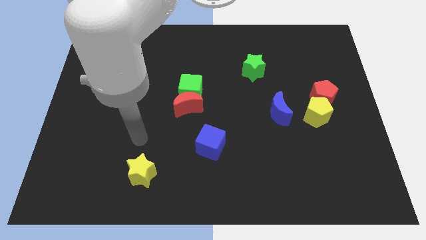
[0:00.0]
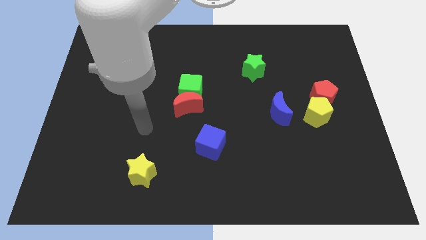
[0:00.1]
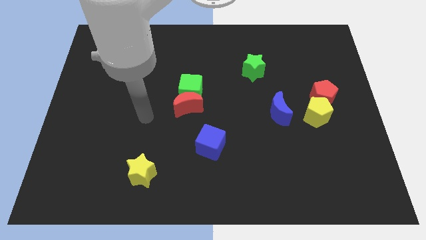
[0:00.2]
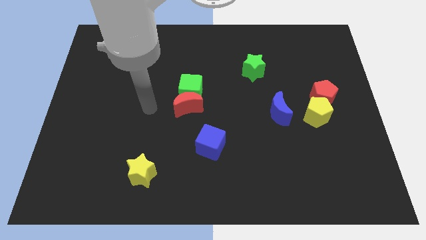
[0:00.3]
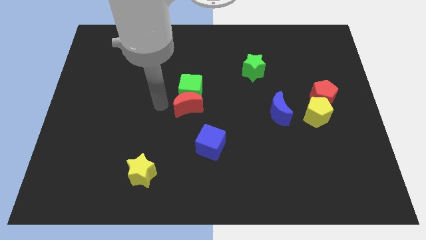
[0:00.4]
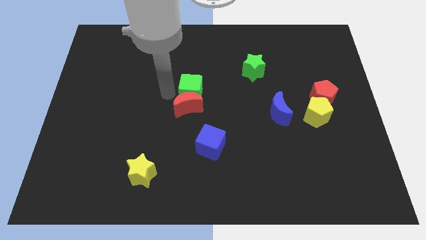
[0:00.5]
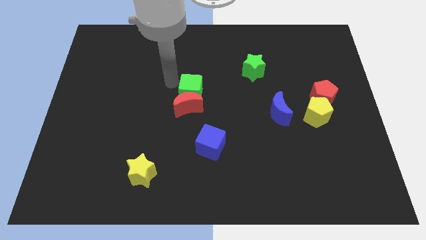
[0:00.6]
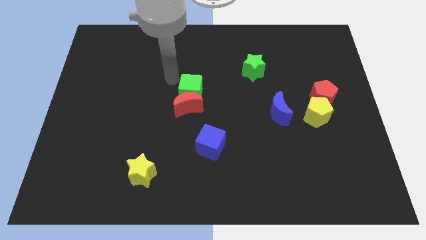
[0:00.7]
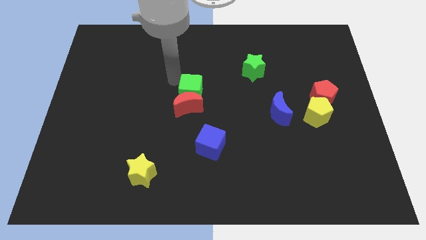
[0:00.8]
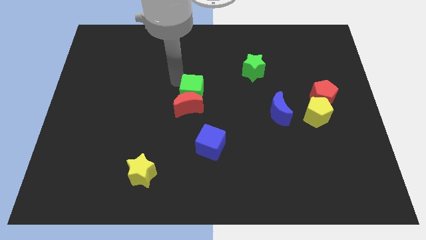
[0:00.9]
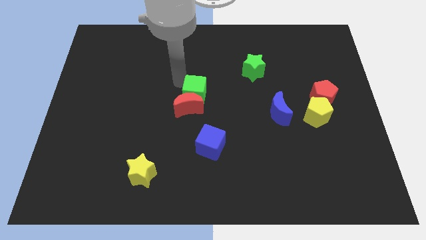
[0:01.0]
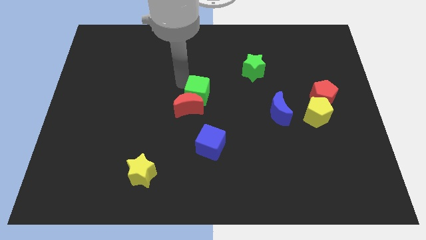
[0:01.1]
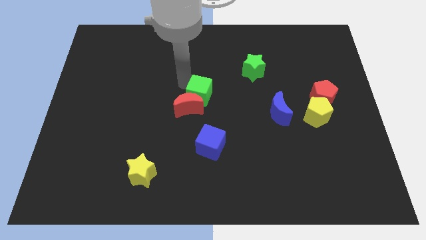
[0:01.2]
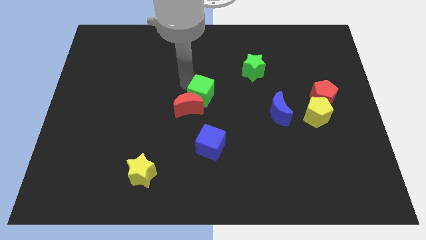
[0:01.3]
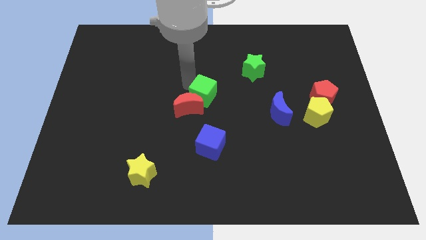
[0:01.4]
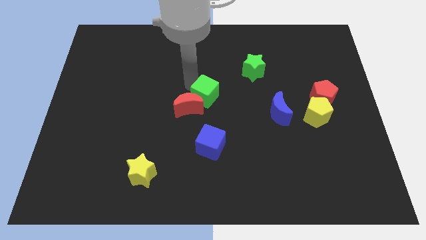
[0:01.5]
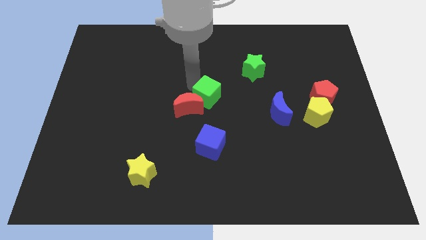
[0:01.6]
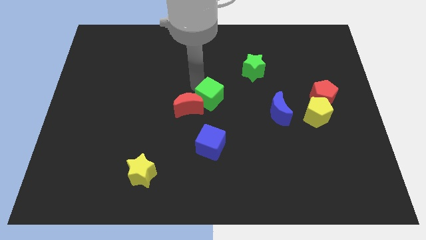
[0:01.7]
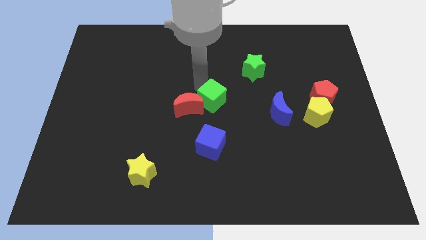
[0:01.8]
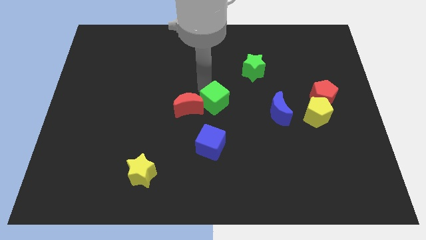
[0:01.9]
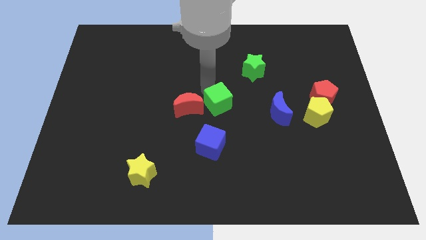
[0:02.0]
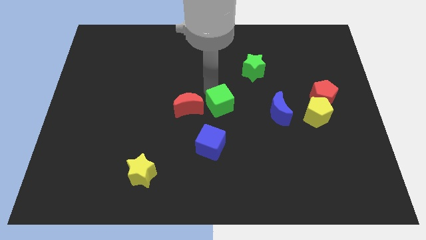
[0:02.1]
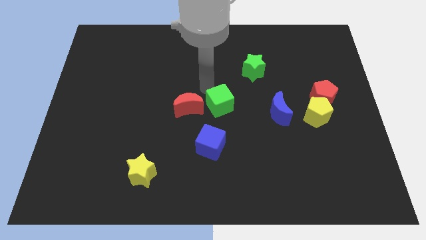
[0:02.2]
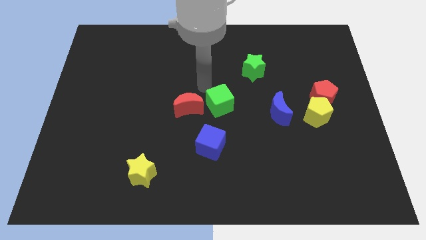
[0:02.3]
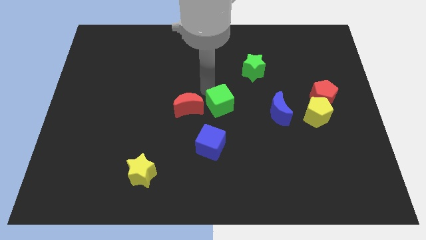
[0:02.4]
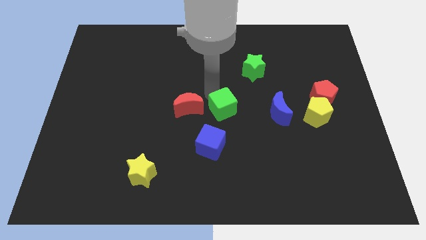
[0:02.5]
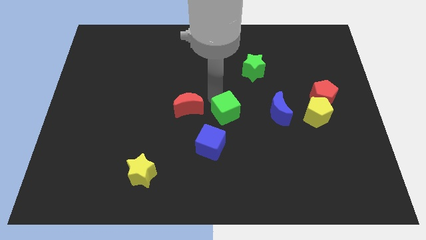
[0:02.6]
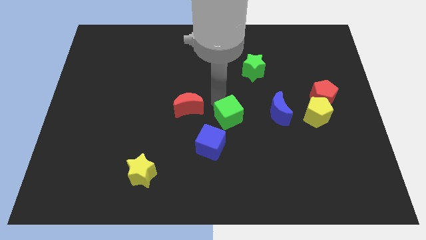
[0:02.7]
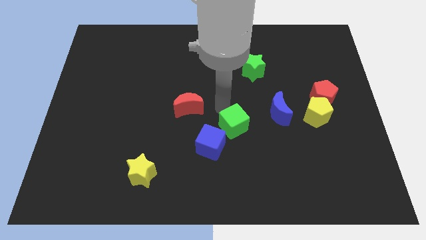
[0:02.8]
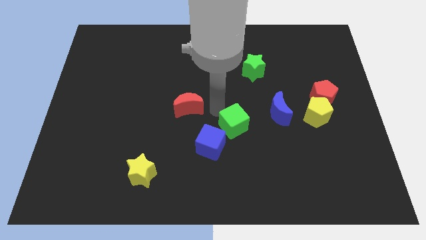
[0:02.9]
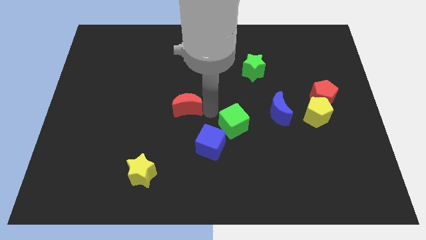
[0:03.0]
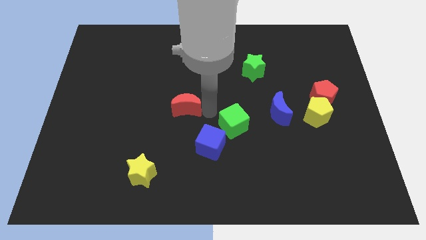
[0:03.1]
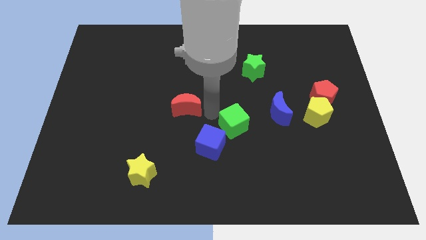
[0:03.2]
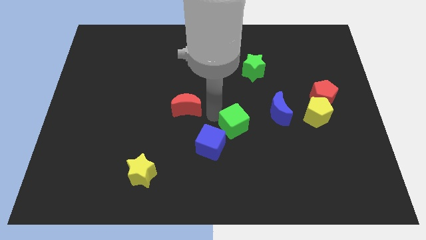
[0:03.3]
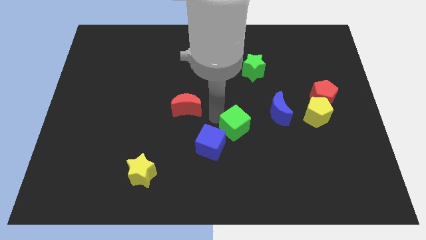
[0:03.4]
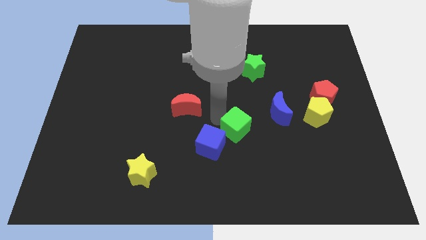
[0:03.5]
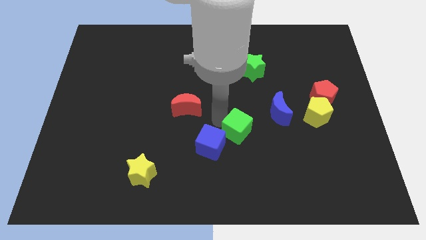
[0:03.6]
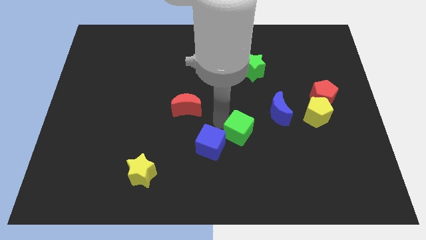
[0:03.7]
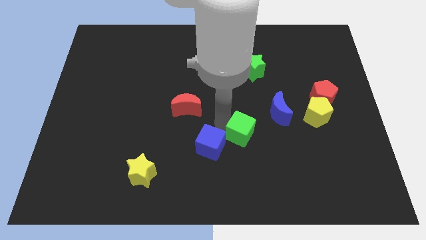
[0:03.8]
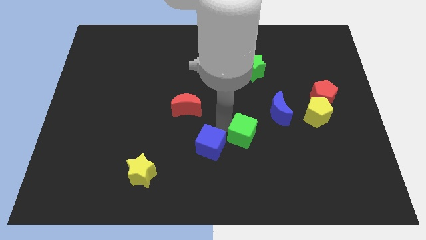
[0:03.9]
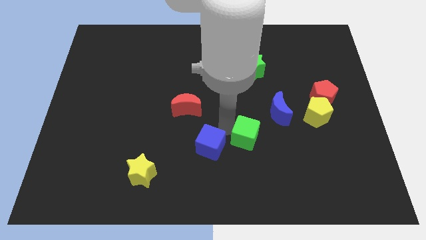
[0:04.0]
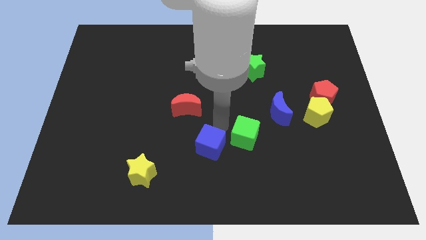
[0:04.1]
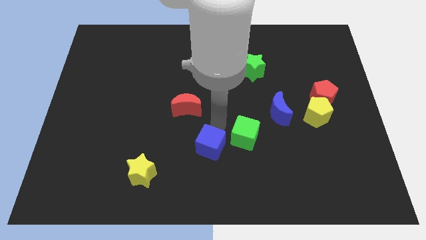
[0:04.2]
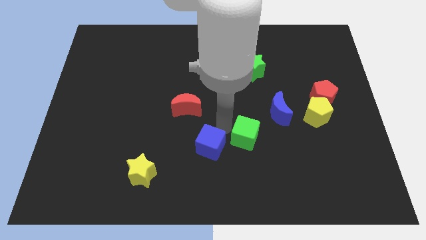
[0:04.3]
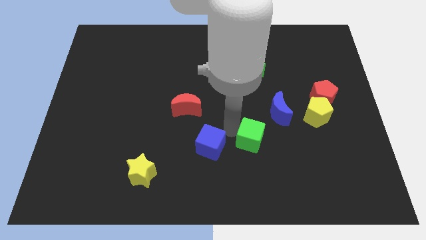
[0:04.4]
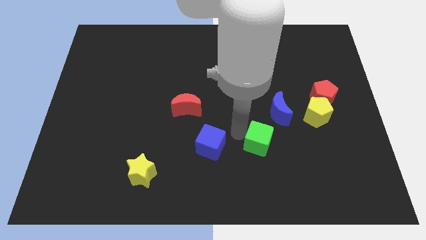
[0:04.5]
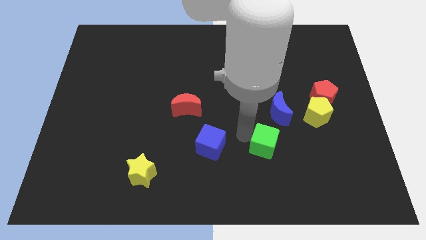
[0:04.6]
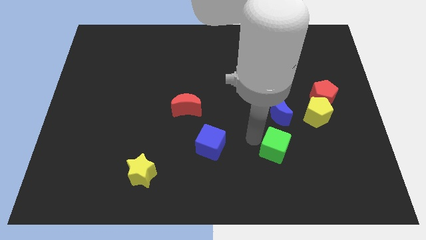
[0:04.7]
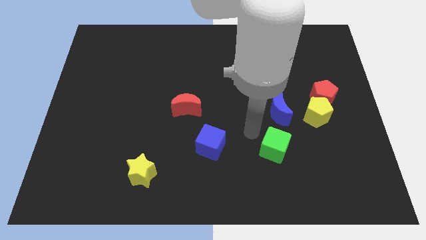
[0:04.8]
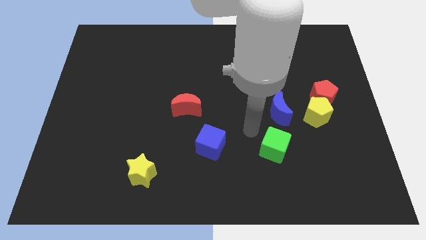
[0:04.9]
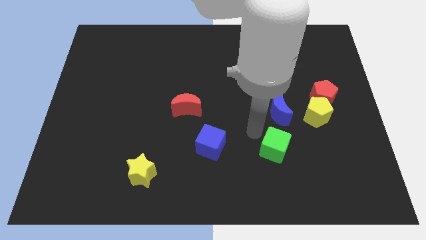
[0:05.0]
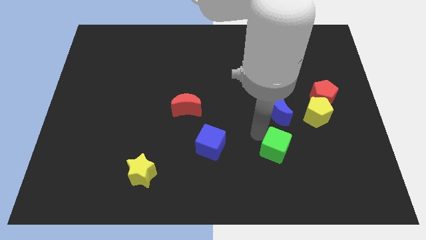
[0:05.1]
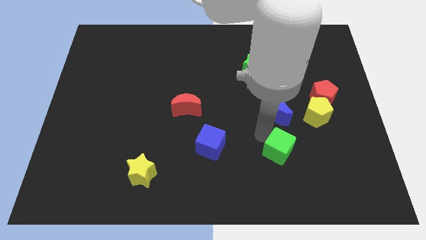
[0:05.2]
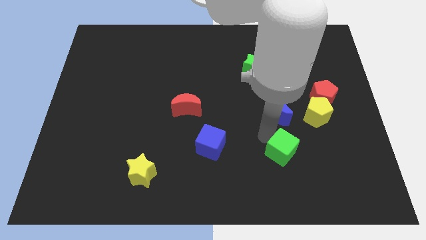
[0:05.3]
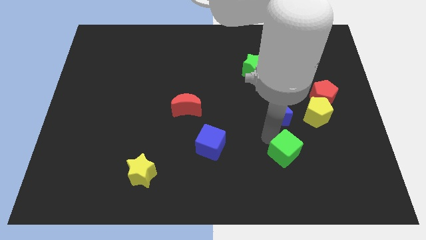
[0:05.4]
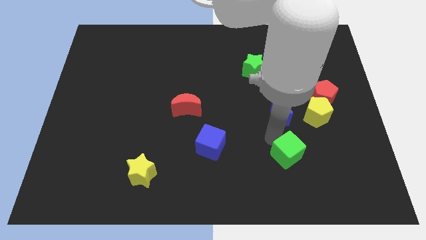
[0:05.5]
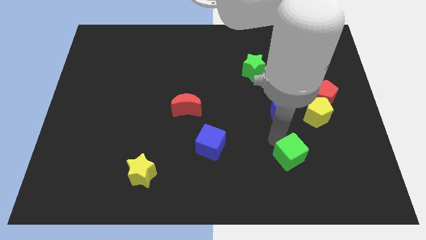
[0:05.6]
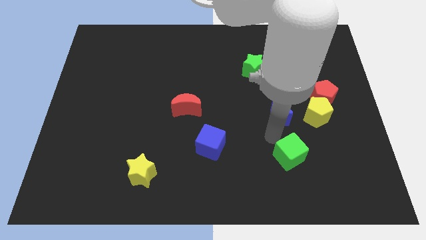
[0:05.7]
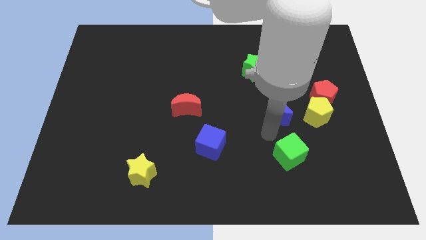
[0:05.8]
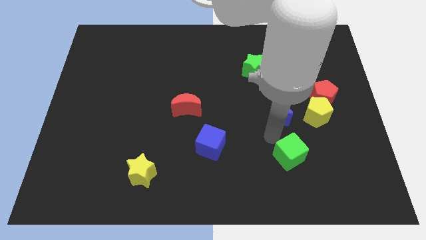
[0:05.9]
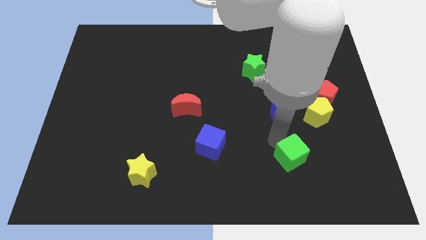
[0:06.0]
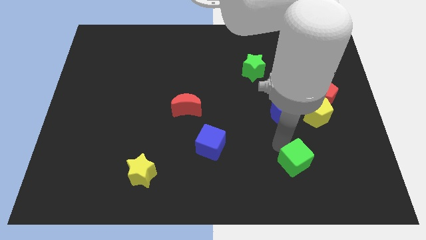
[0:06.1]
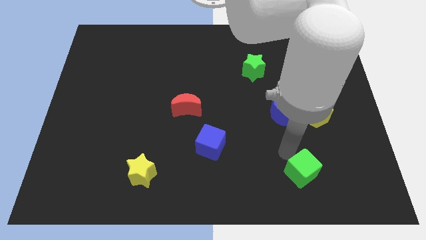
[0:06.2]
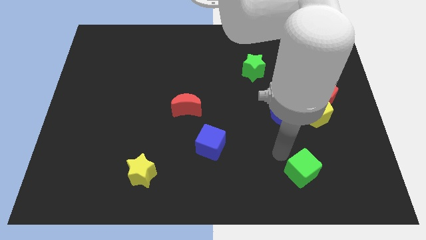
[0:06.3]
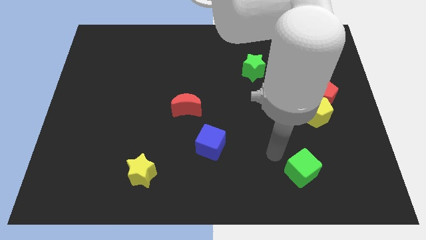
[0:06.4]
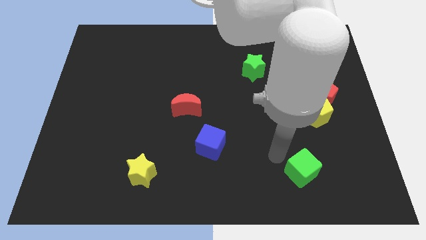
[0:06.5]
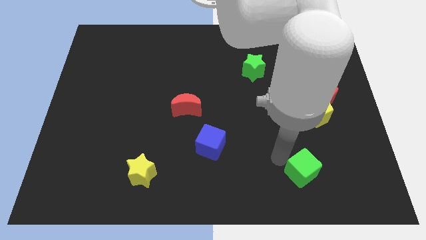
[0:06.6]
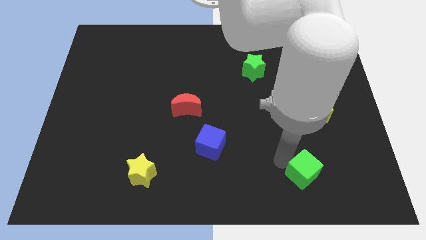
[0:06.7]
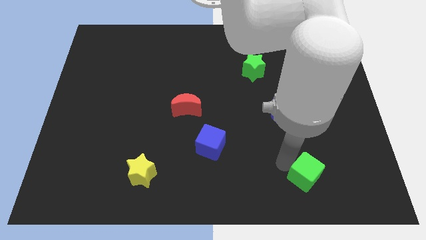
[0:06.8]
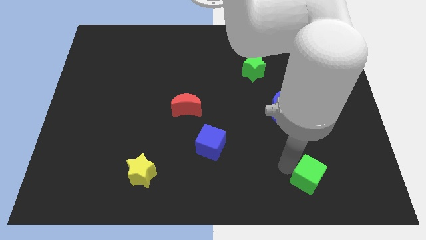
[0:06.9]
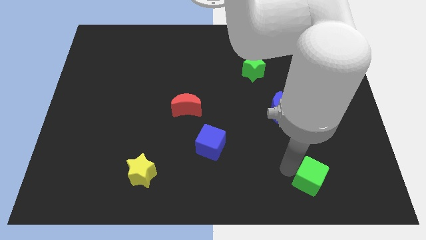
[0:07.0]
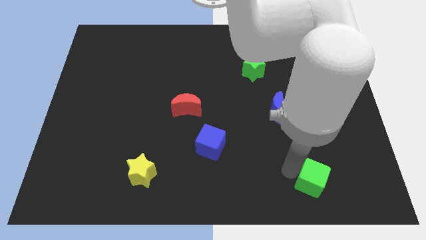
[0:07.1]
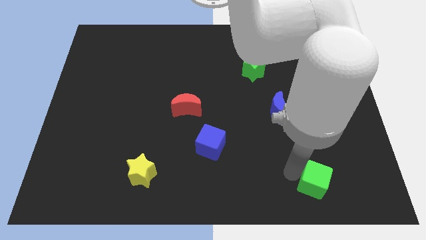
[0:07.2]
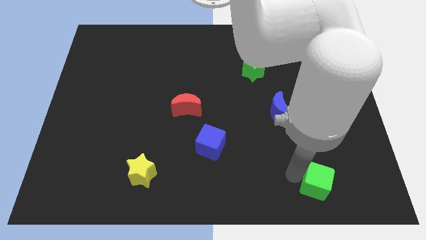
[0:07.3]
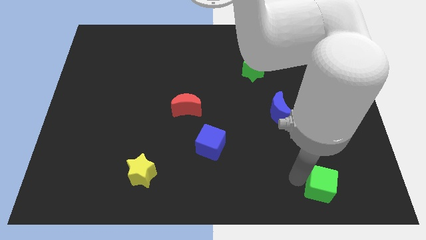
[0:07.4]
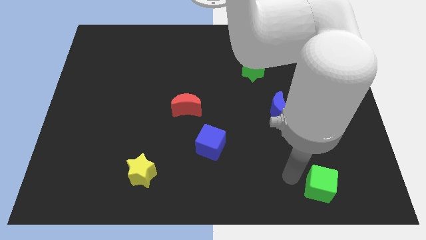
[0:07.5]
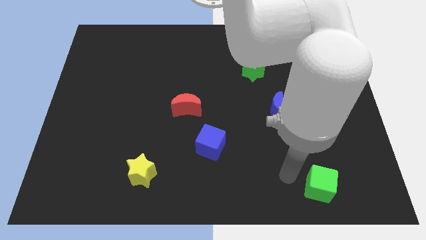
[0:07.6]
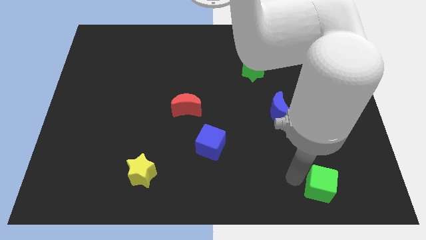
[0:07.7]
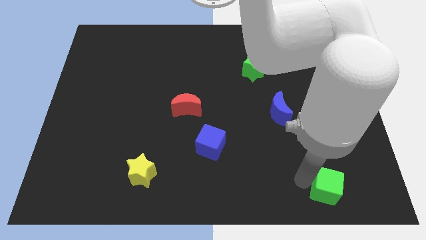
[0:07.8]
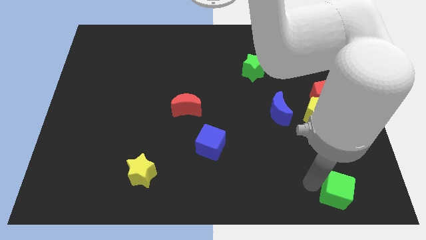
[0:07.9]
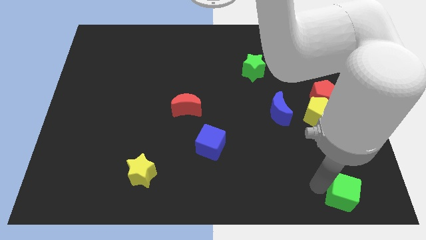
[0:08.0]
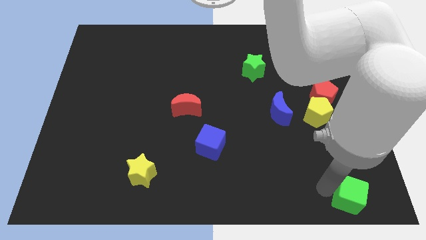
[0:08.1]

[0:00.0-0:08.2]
move the green cube to the bottom right
